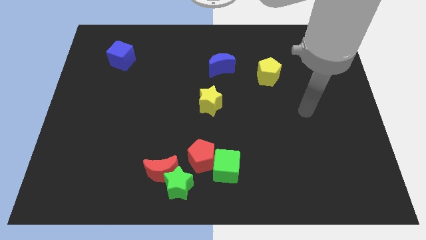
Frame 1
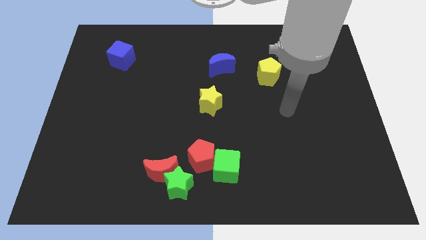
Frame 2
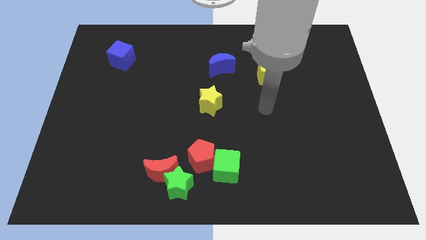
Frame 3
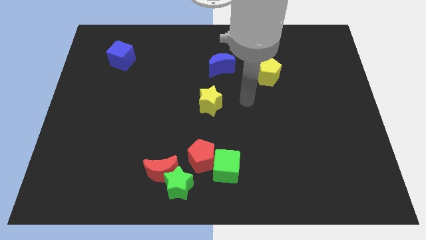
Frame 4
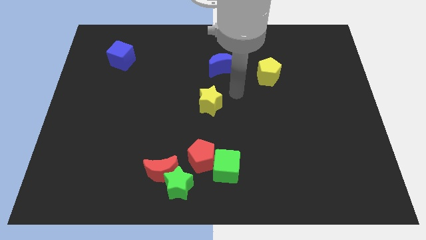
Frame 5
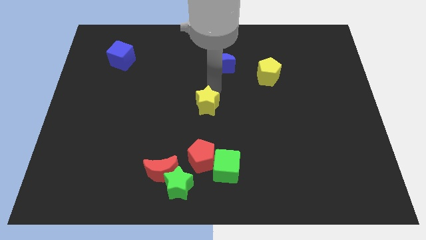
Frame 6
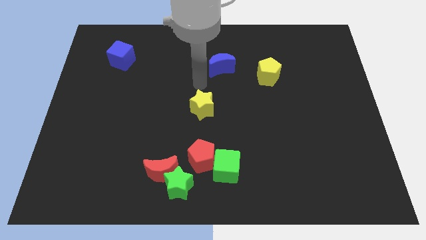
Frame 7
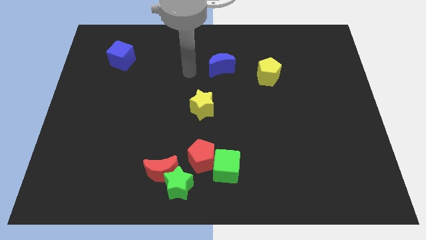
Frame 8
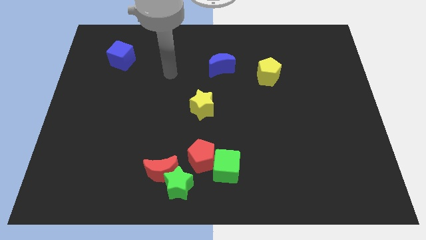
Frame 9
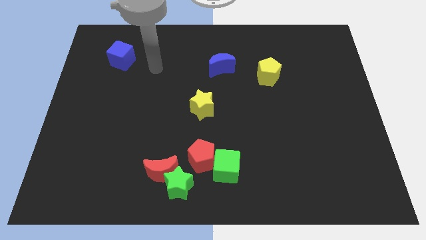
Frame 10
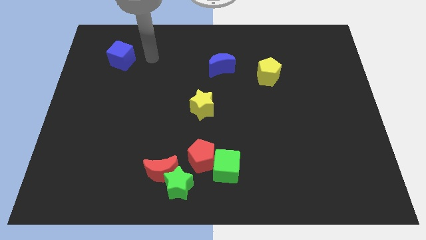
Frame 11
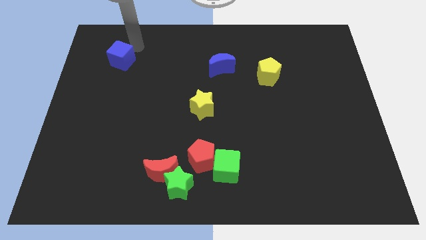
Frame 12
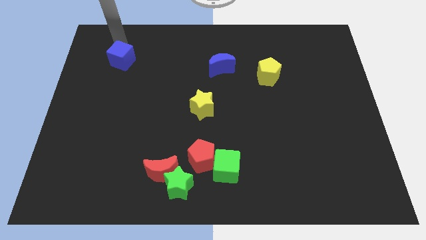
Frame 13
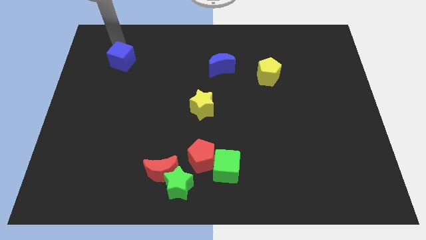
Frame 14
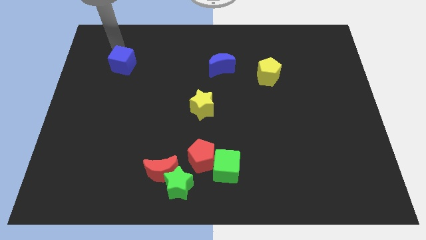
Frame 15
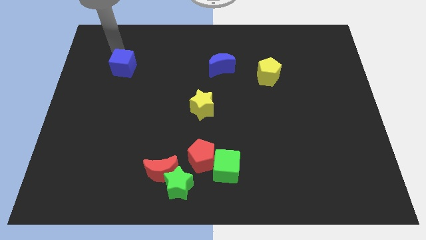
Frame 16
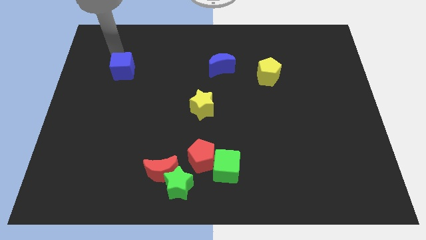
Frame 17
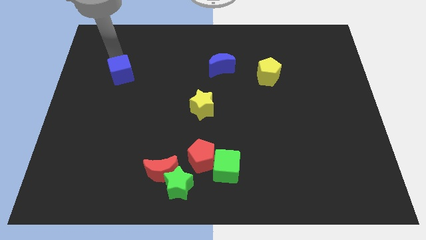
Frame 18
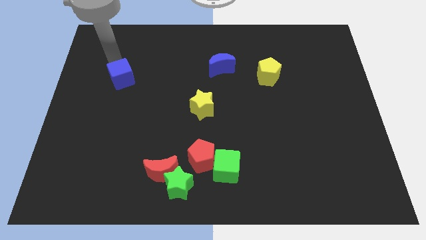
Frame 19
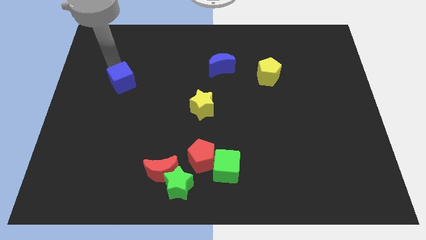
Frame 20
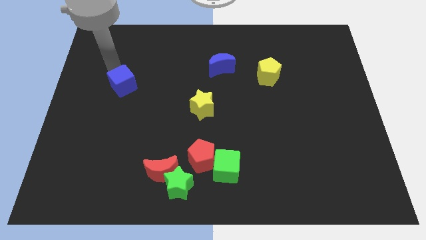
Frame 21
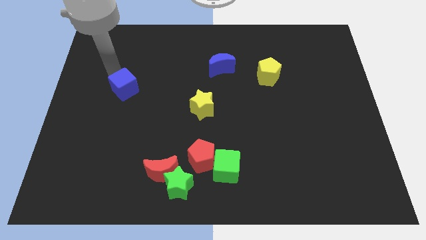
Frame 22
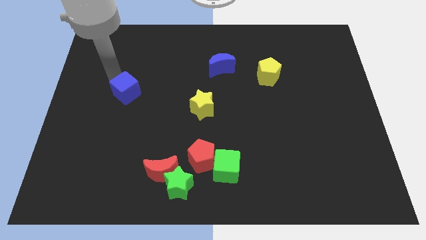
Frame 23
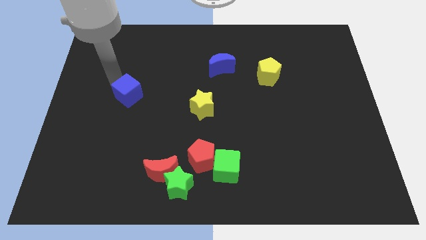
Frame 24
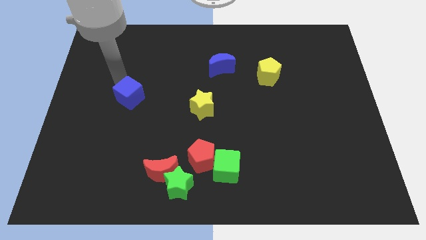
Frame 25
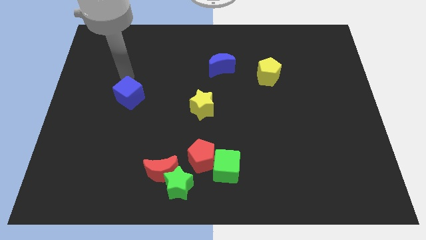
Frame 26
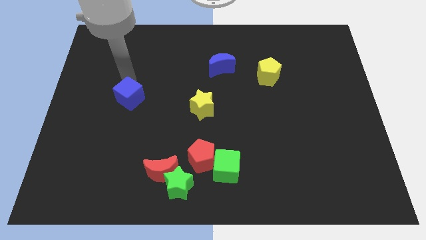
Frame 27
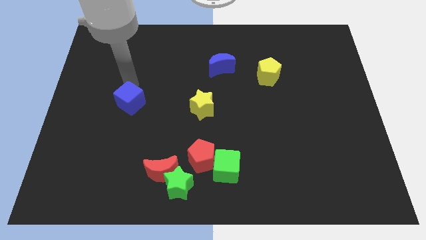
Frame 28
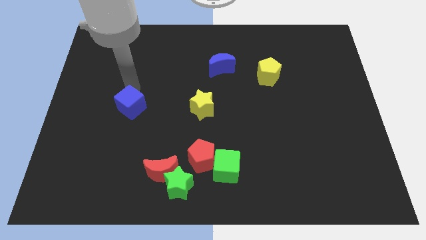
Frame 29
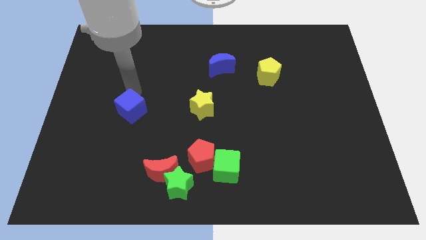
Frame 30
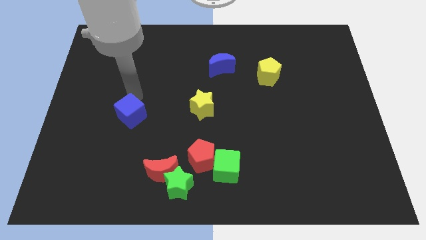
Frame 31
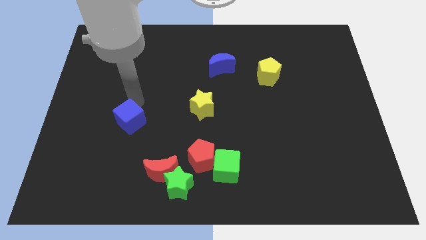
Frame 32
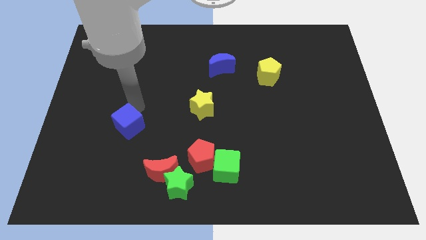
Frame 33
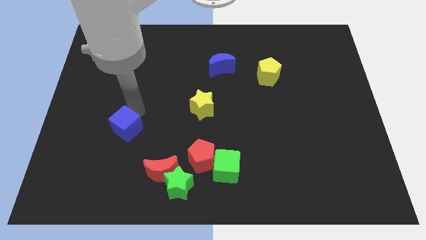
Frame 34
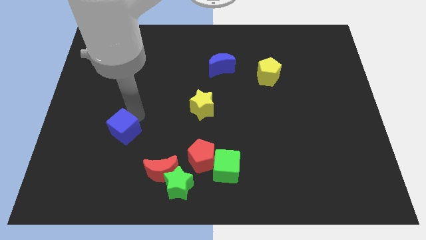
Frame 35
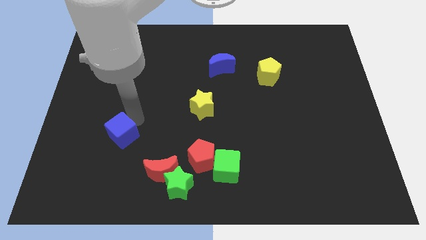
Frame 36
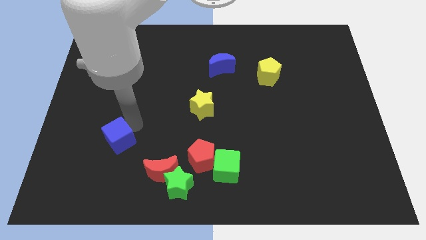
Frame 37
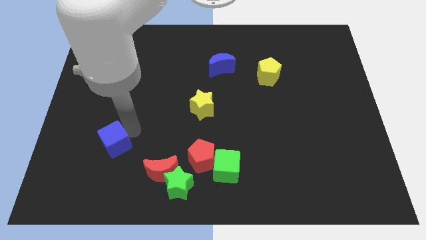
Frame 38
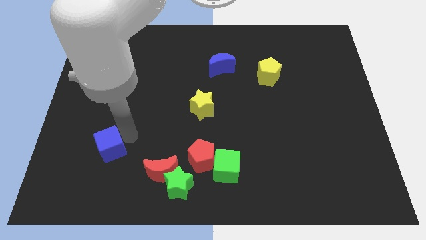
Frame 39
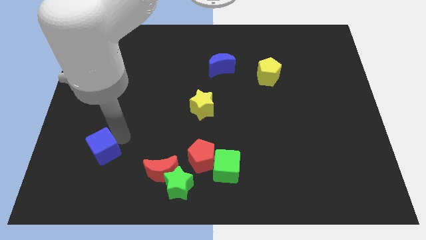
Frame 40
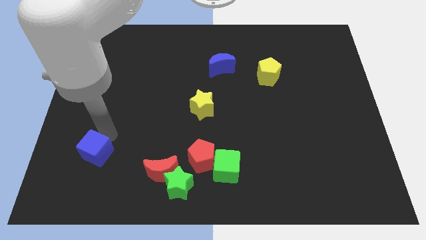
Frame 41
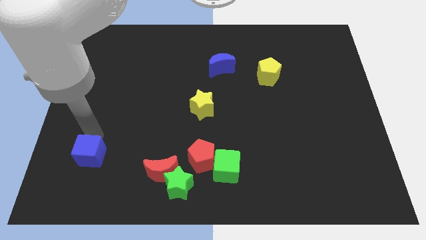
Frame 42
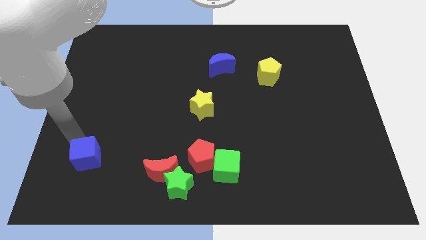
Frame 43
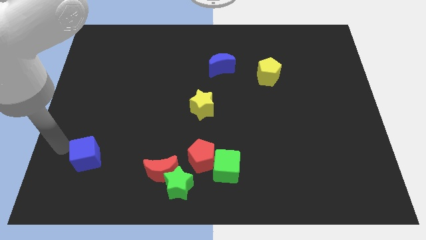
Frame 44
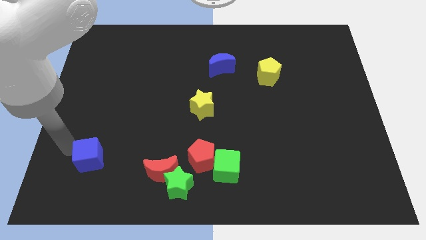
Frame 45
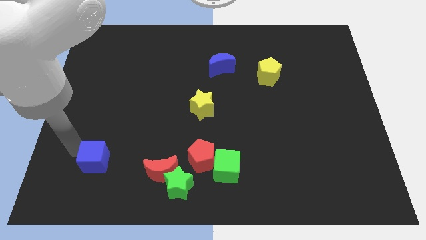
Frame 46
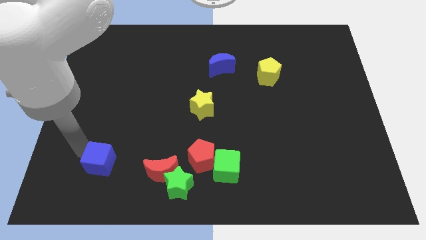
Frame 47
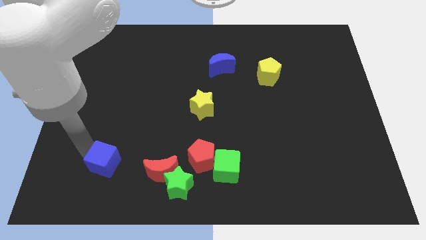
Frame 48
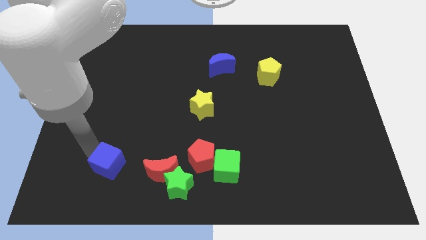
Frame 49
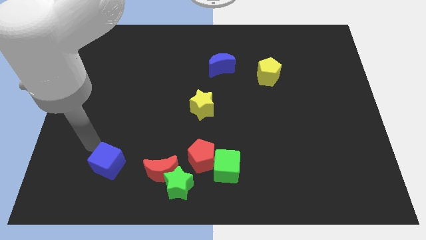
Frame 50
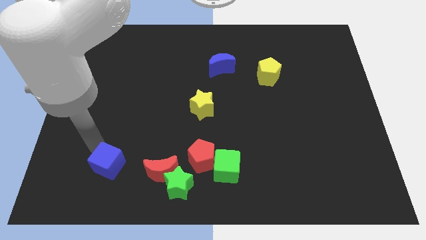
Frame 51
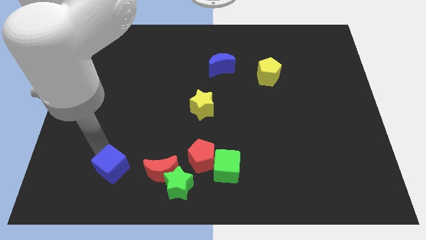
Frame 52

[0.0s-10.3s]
move the blue cube left of the green star

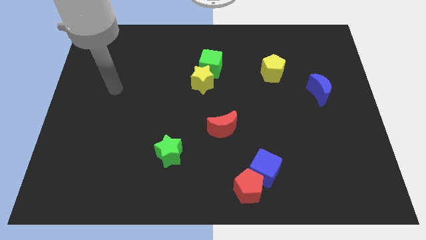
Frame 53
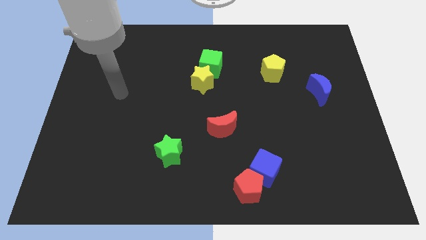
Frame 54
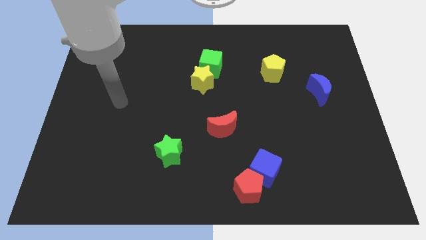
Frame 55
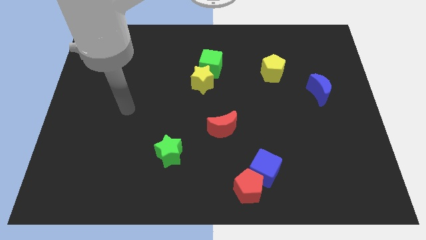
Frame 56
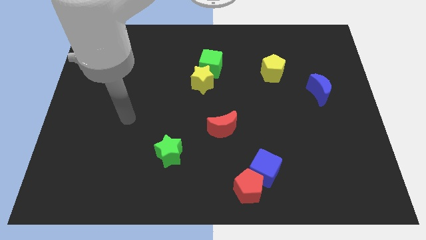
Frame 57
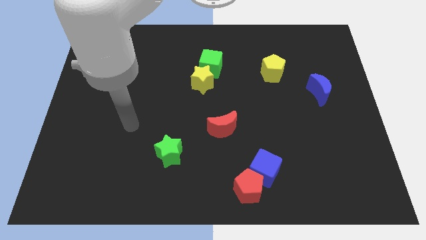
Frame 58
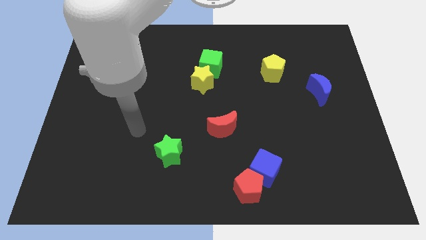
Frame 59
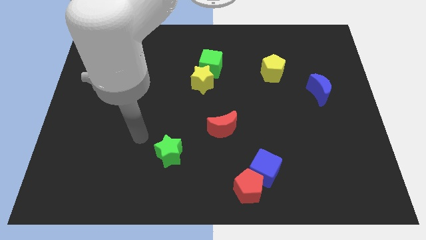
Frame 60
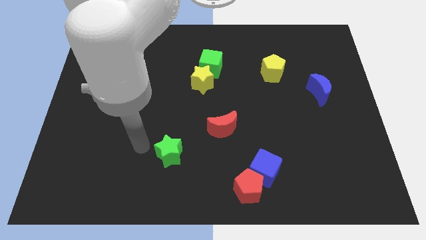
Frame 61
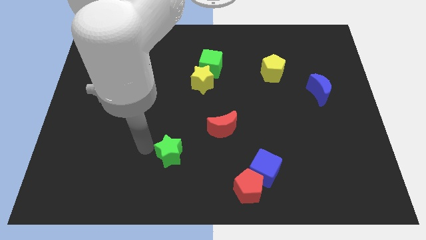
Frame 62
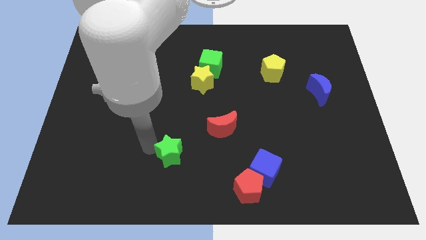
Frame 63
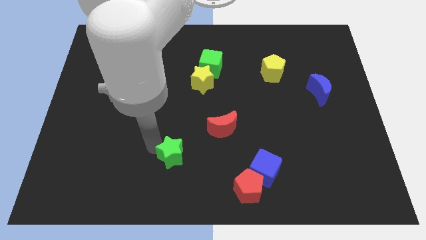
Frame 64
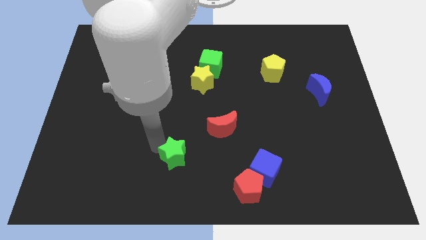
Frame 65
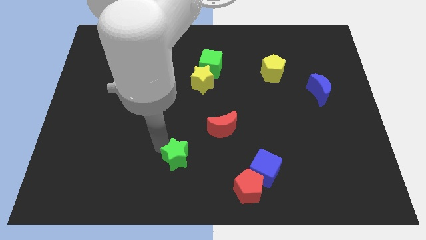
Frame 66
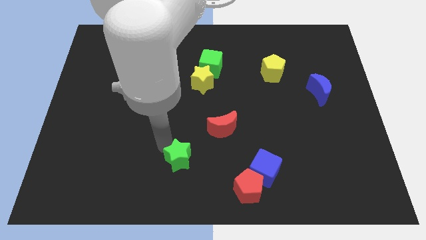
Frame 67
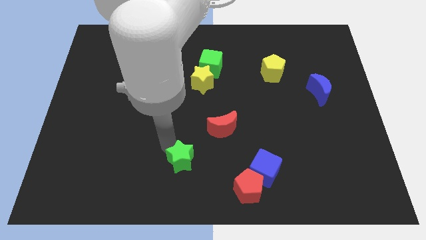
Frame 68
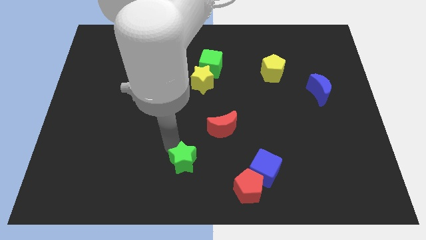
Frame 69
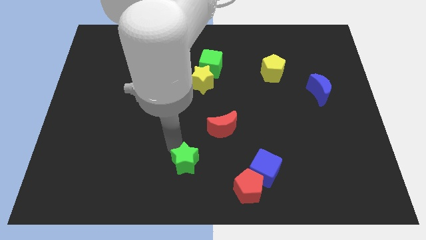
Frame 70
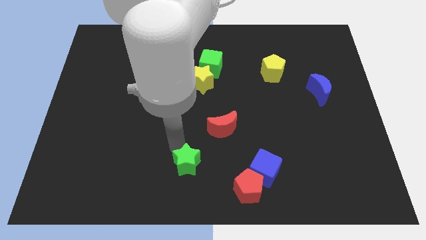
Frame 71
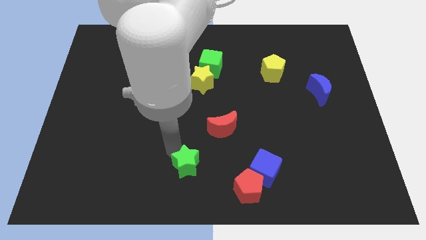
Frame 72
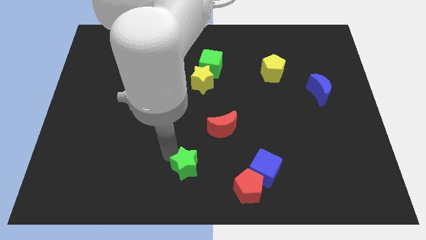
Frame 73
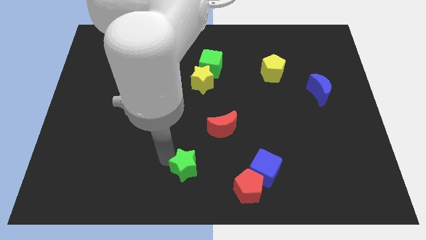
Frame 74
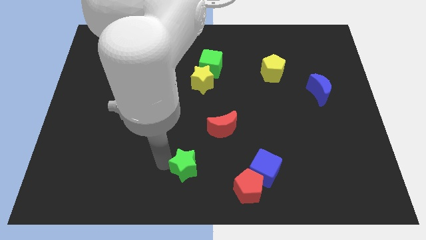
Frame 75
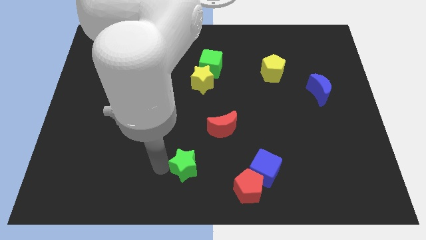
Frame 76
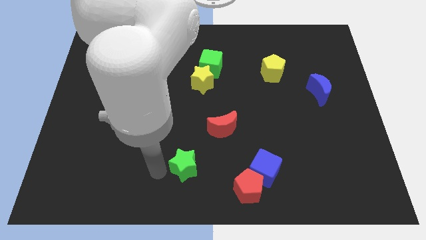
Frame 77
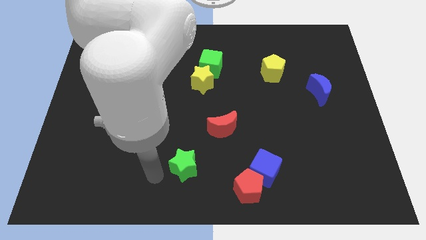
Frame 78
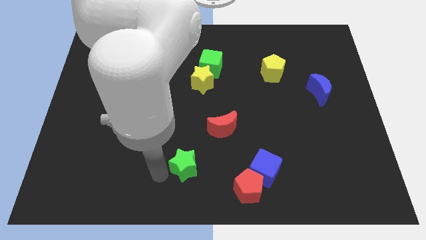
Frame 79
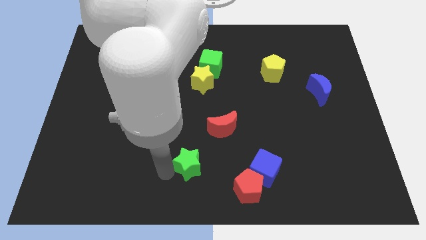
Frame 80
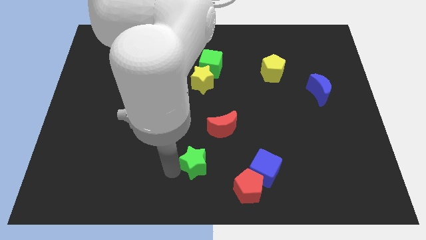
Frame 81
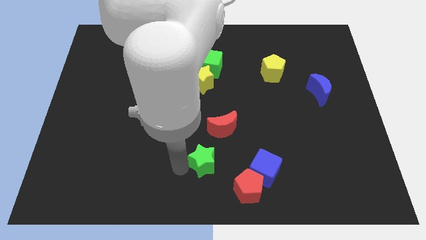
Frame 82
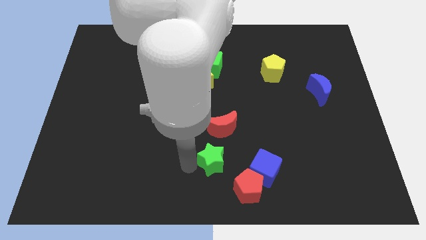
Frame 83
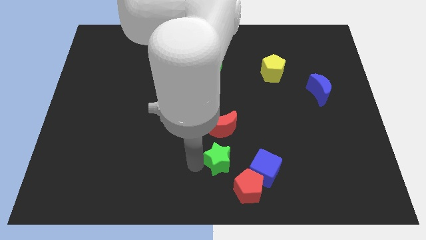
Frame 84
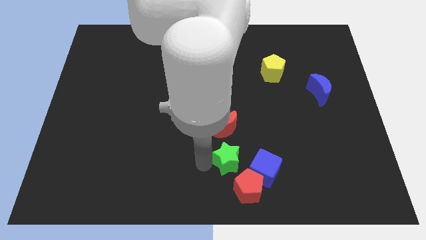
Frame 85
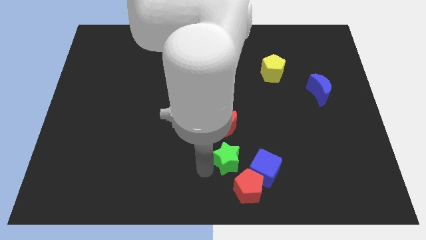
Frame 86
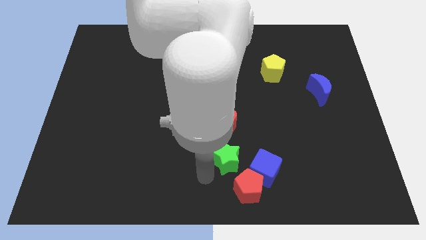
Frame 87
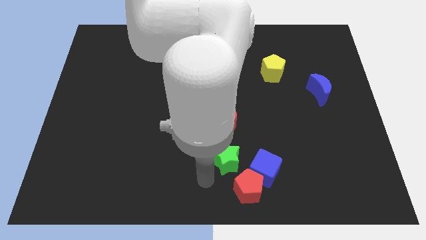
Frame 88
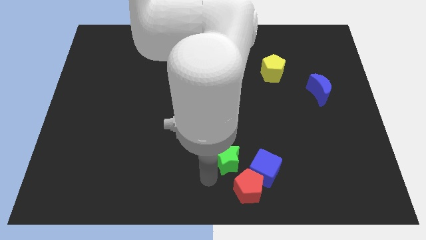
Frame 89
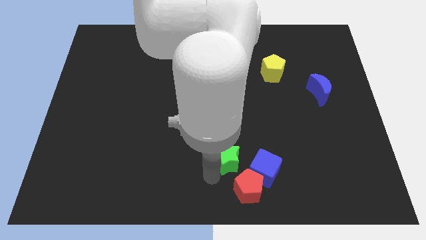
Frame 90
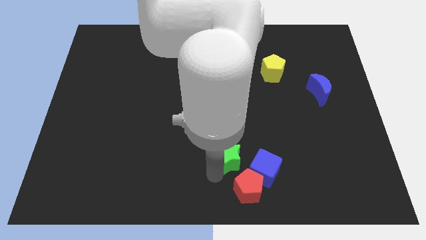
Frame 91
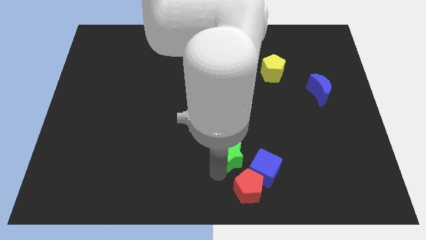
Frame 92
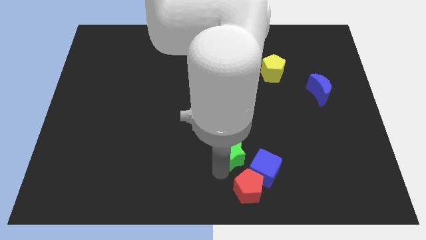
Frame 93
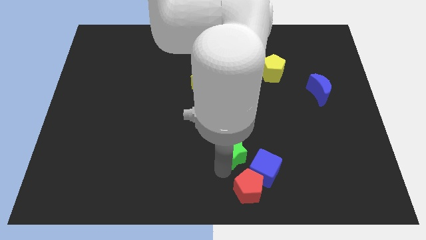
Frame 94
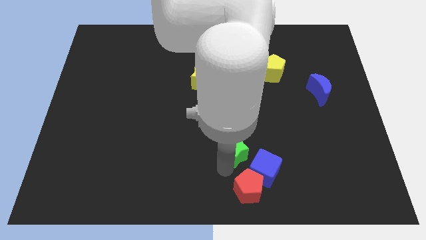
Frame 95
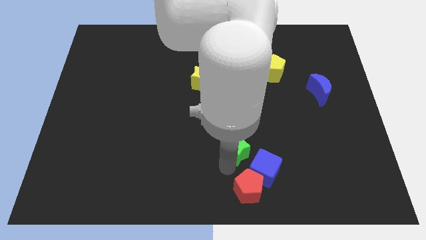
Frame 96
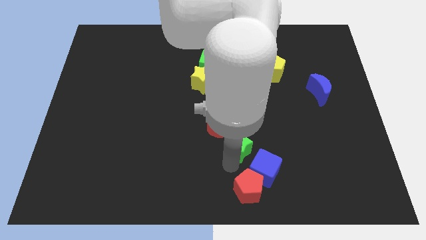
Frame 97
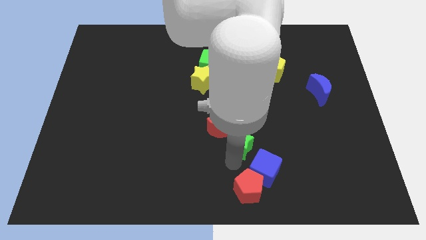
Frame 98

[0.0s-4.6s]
push the green star to the top of the blue cube
